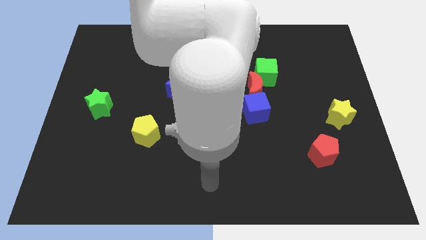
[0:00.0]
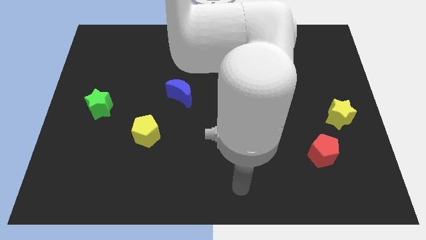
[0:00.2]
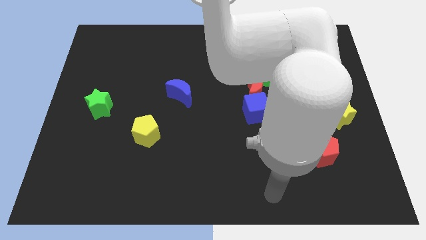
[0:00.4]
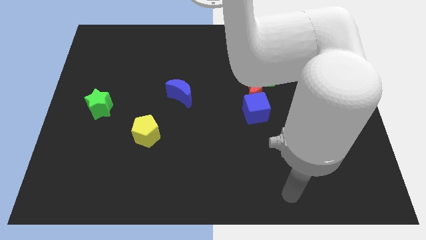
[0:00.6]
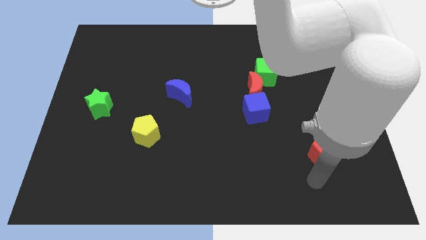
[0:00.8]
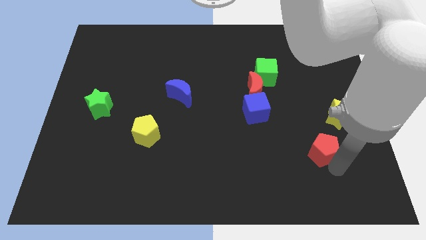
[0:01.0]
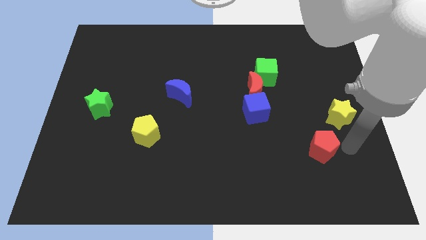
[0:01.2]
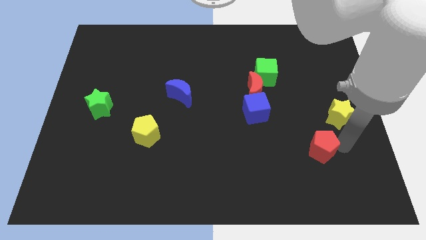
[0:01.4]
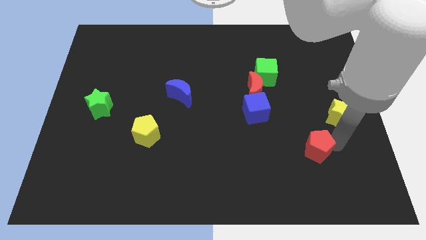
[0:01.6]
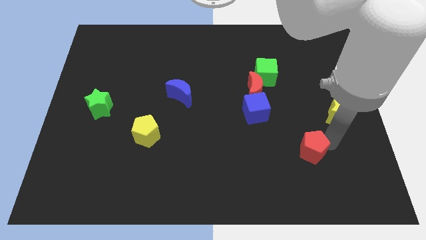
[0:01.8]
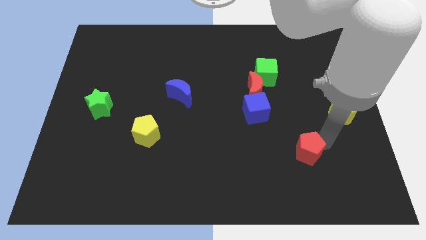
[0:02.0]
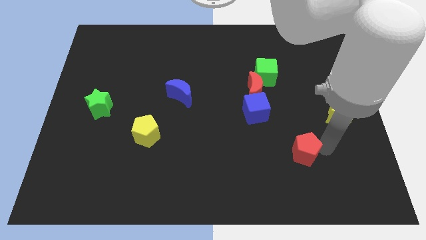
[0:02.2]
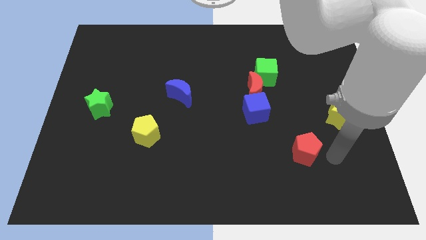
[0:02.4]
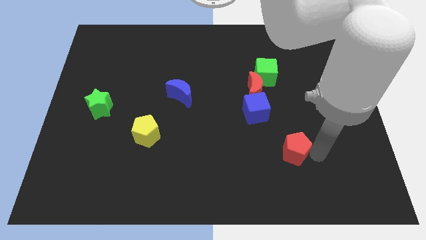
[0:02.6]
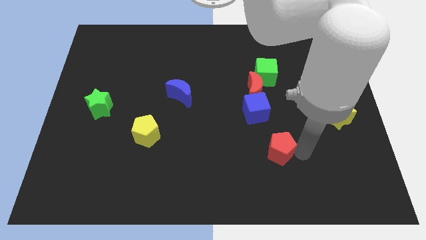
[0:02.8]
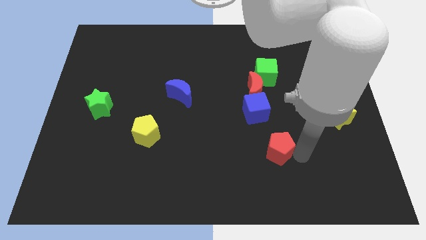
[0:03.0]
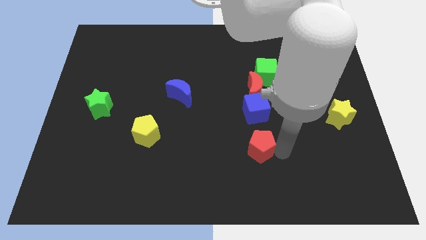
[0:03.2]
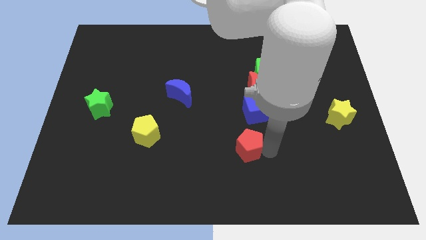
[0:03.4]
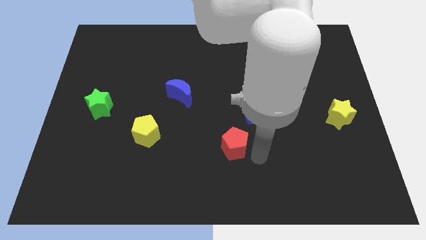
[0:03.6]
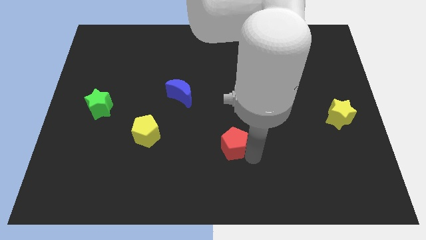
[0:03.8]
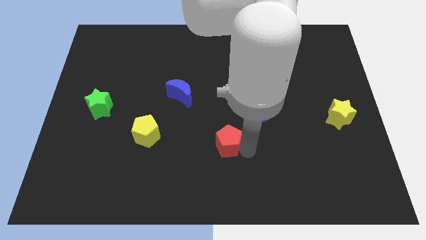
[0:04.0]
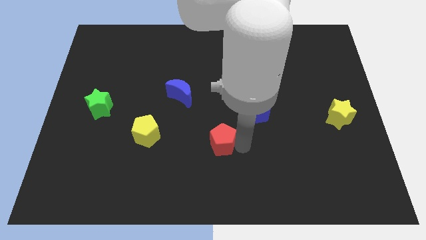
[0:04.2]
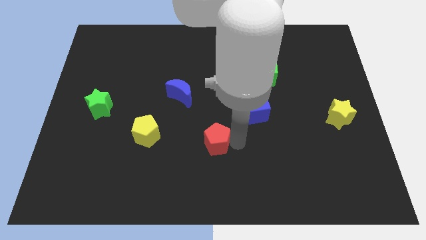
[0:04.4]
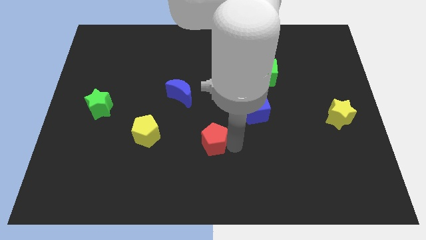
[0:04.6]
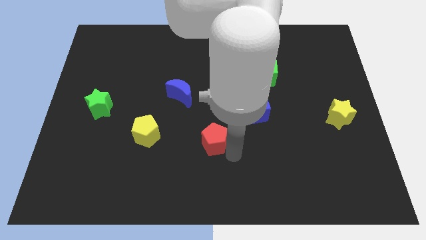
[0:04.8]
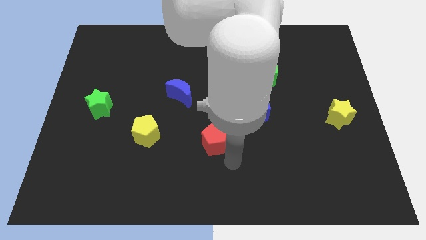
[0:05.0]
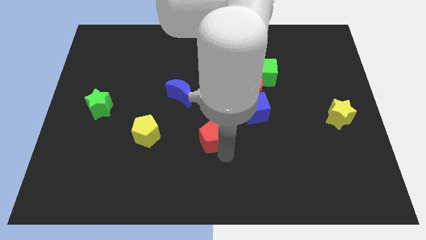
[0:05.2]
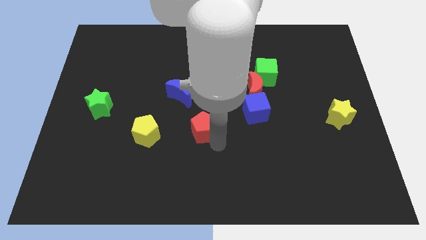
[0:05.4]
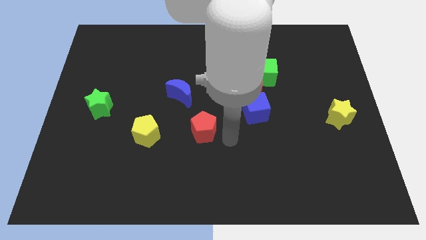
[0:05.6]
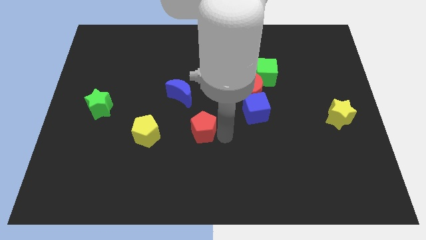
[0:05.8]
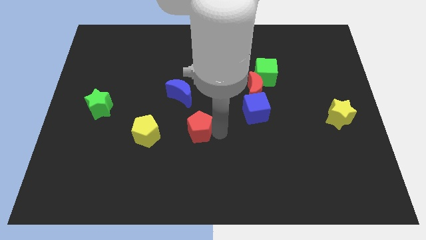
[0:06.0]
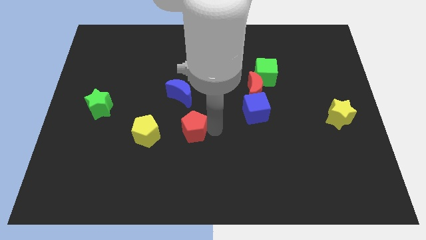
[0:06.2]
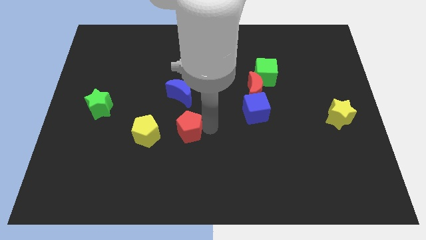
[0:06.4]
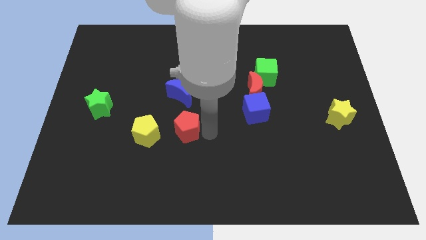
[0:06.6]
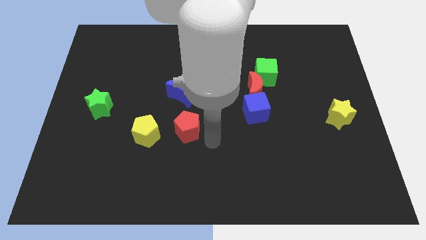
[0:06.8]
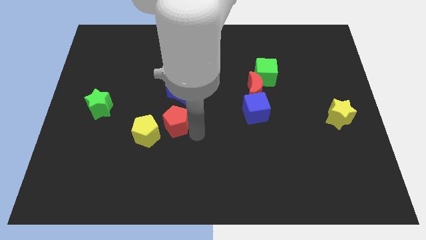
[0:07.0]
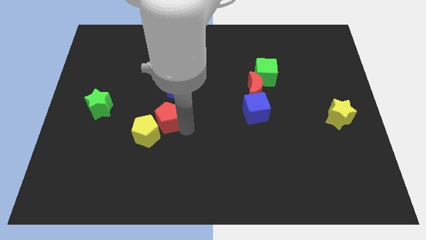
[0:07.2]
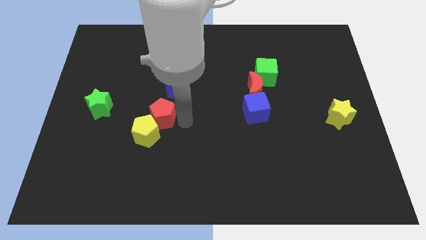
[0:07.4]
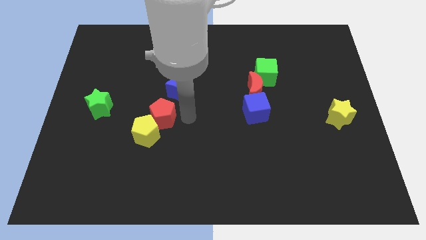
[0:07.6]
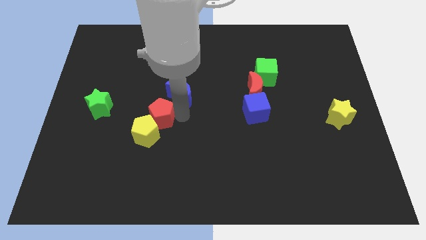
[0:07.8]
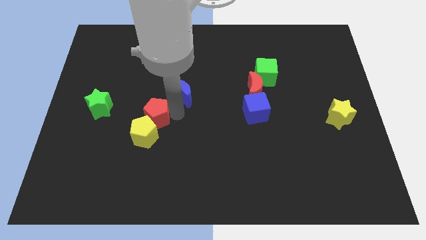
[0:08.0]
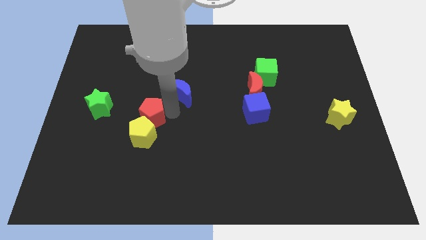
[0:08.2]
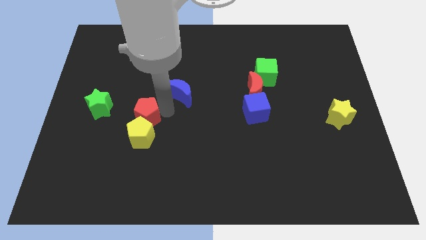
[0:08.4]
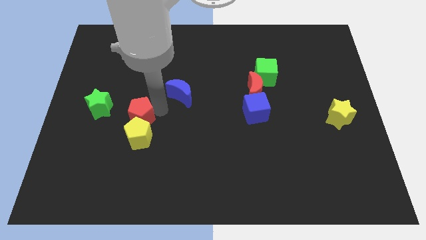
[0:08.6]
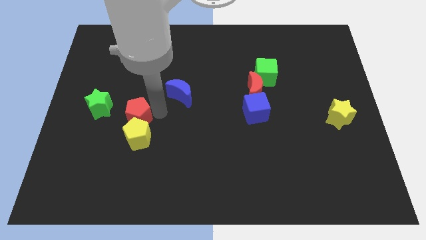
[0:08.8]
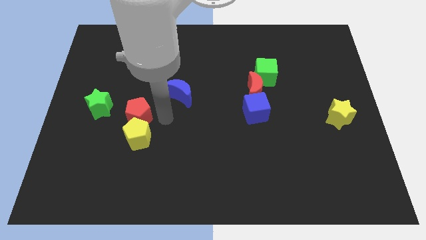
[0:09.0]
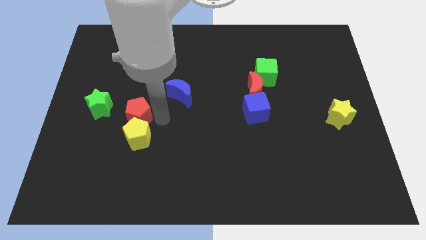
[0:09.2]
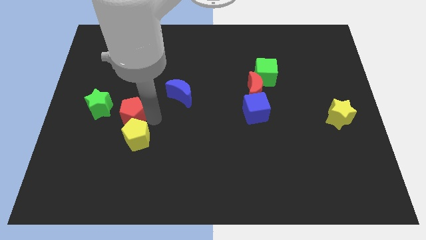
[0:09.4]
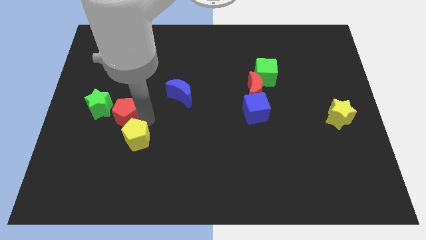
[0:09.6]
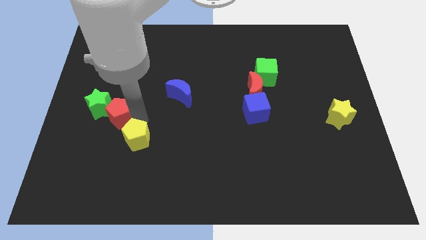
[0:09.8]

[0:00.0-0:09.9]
put the red pentagon towards the green star

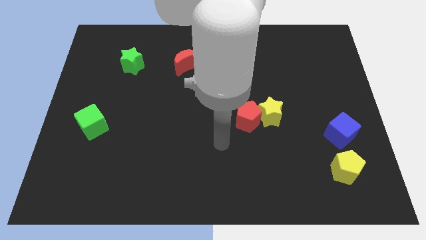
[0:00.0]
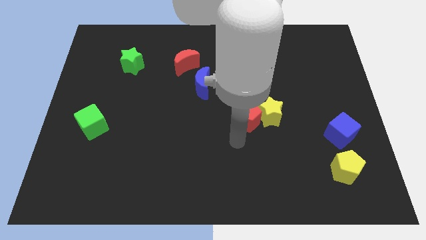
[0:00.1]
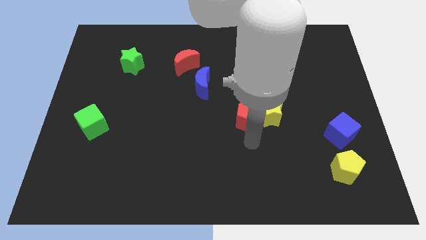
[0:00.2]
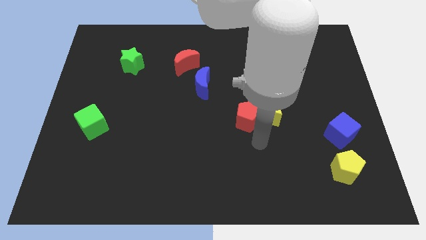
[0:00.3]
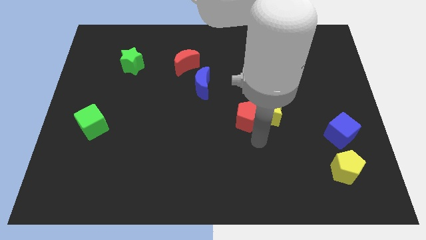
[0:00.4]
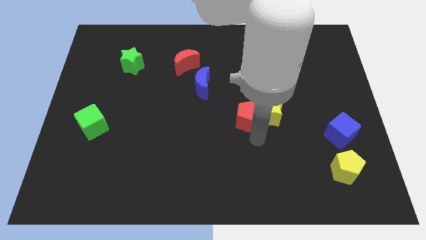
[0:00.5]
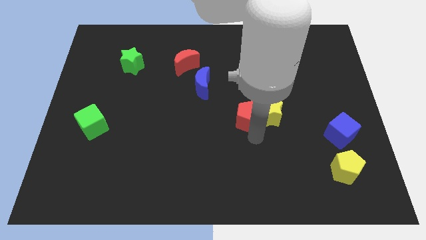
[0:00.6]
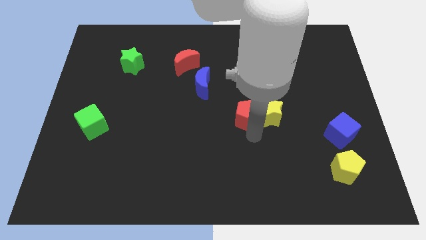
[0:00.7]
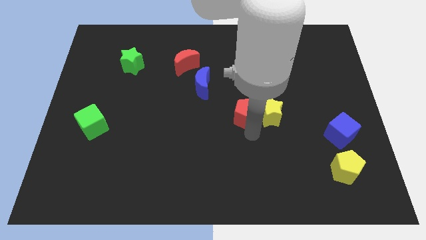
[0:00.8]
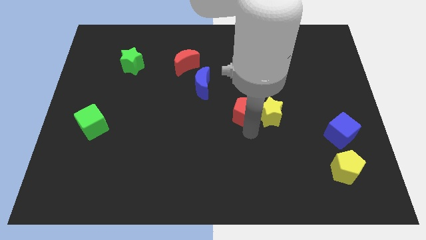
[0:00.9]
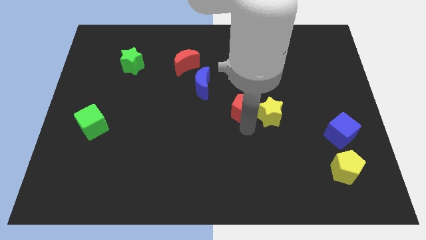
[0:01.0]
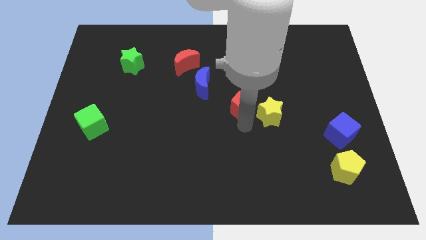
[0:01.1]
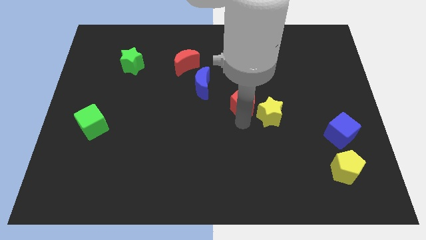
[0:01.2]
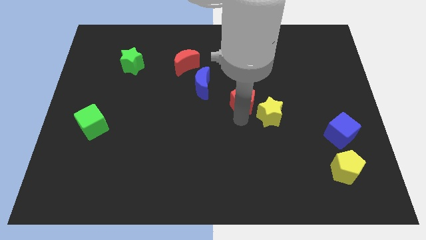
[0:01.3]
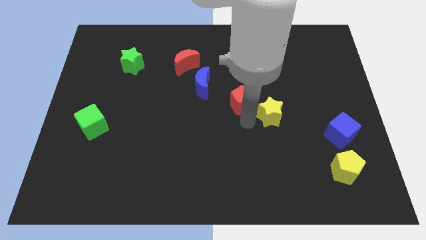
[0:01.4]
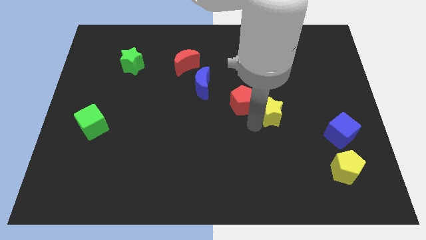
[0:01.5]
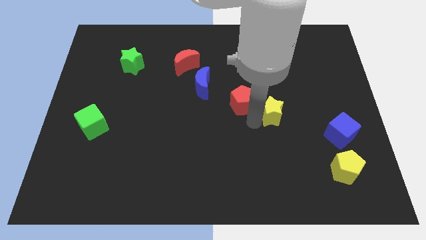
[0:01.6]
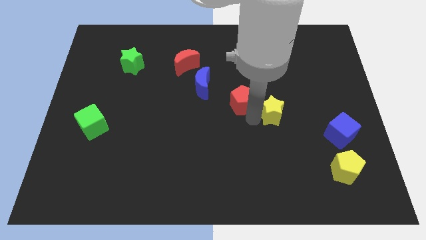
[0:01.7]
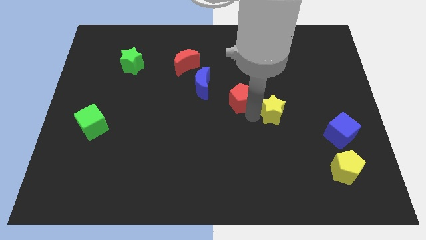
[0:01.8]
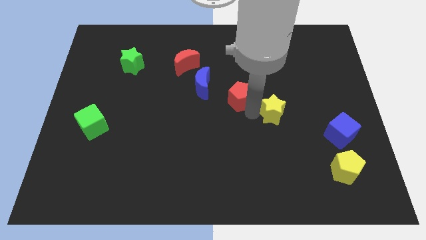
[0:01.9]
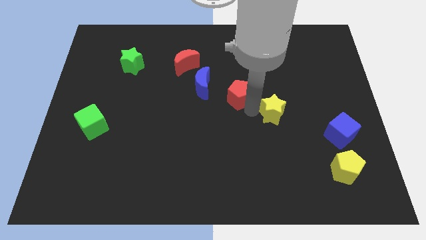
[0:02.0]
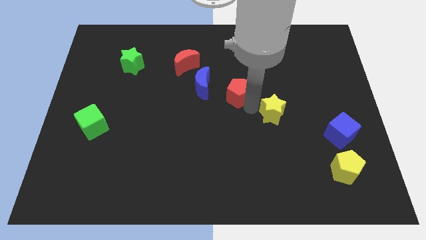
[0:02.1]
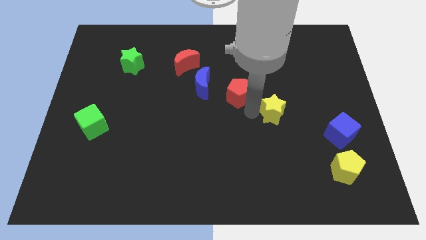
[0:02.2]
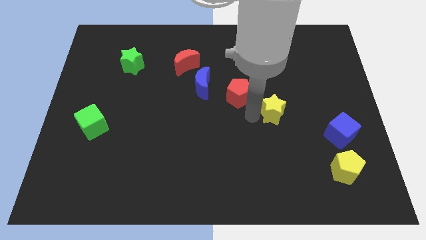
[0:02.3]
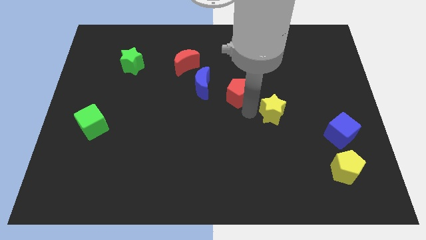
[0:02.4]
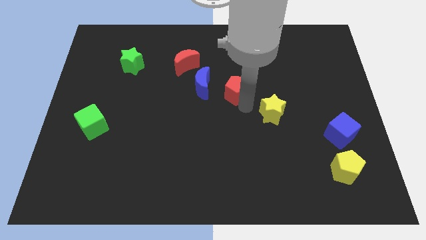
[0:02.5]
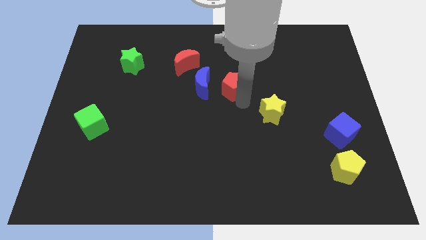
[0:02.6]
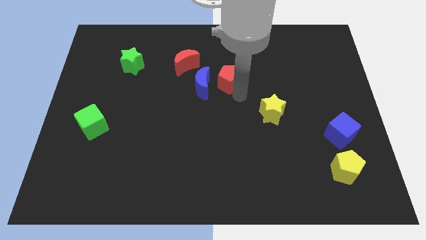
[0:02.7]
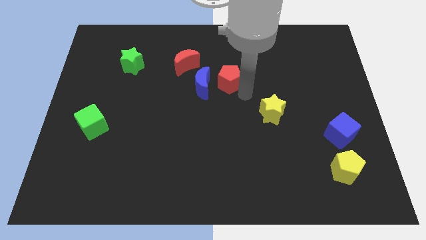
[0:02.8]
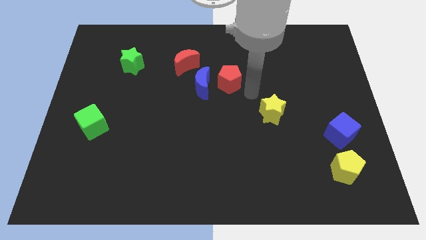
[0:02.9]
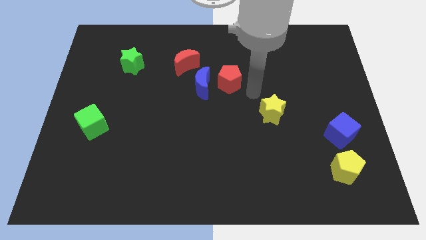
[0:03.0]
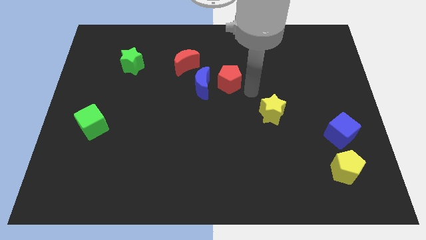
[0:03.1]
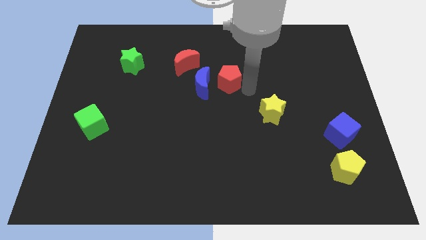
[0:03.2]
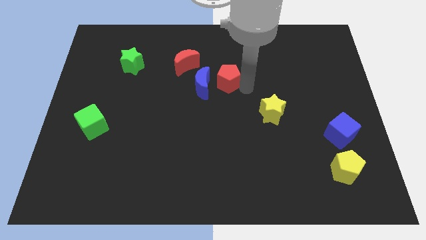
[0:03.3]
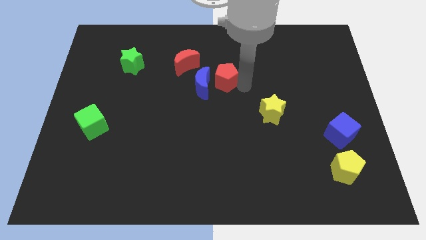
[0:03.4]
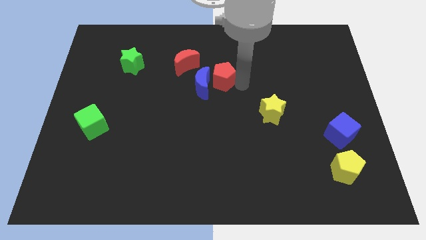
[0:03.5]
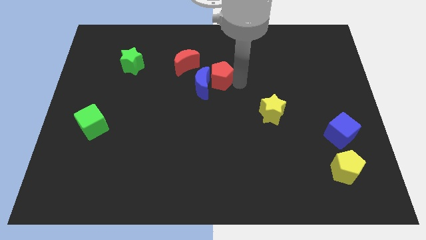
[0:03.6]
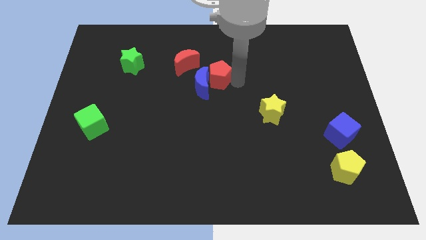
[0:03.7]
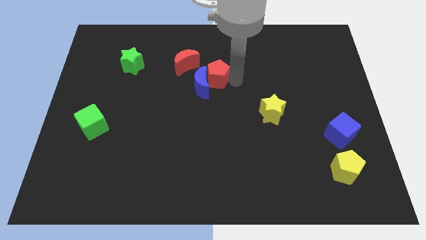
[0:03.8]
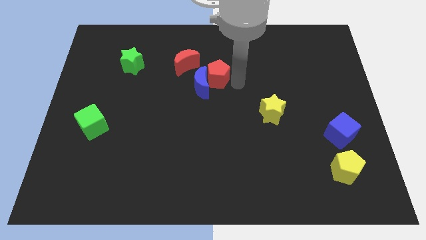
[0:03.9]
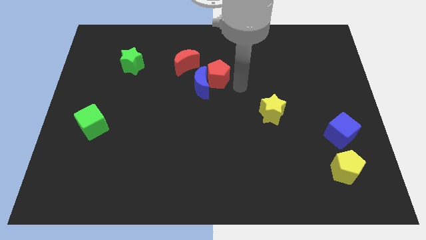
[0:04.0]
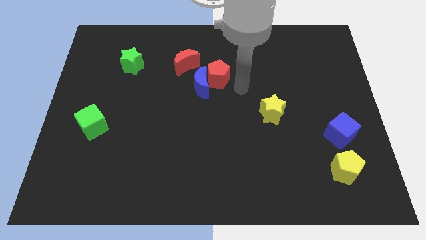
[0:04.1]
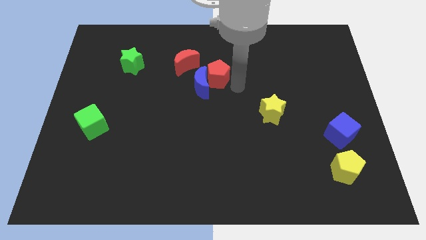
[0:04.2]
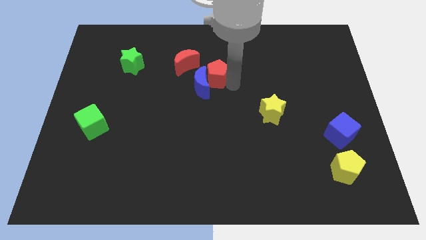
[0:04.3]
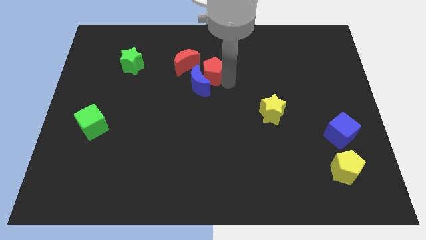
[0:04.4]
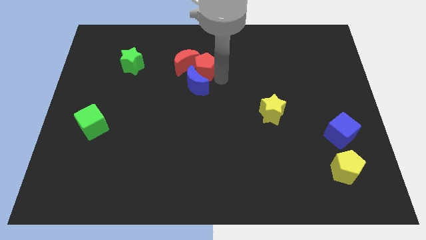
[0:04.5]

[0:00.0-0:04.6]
slide the red pentagon next to the red moon
